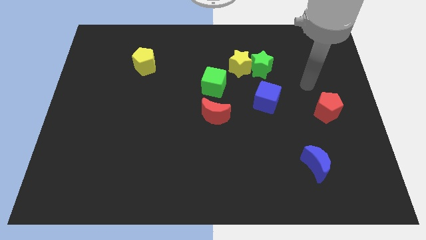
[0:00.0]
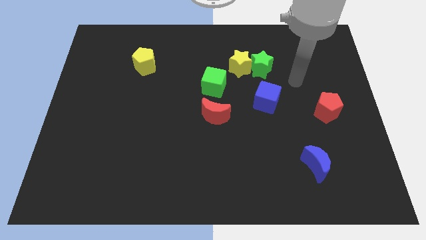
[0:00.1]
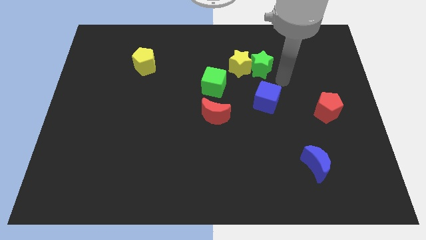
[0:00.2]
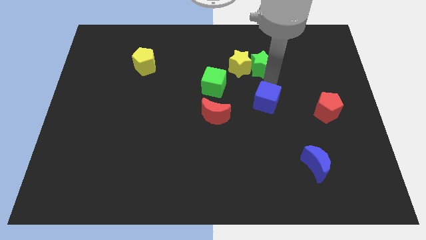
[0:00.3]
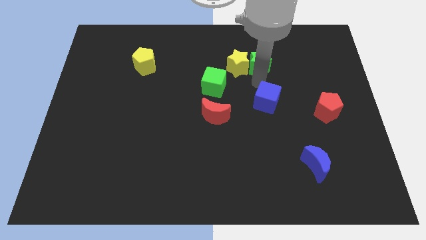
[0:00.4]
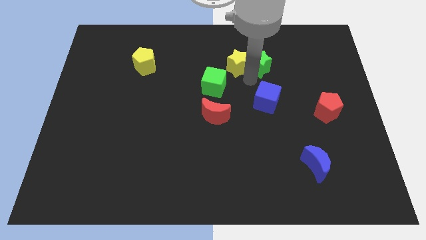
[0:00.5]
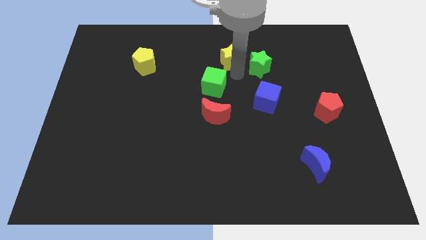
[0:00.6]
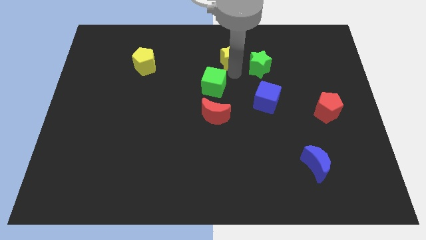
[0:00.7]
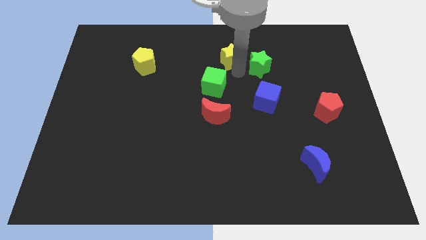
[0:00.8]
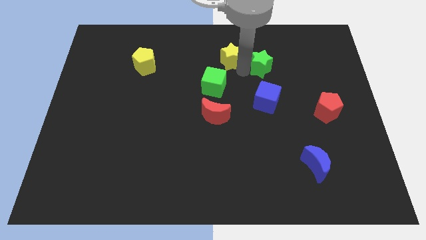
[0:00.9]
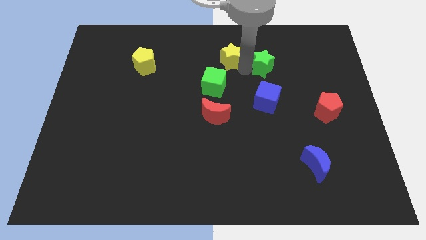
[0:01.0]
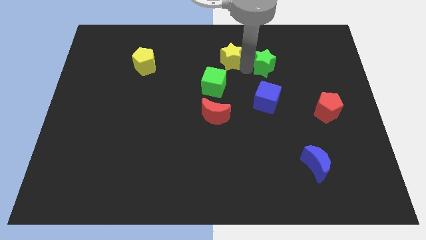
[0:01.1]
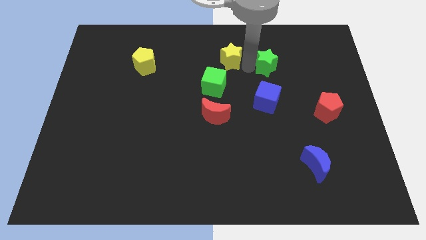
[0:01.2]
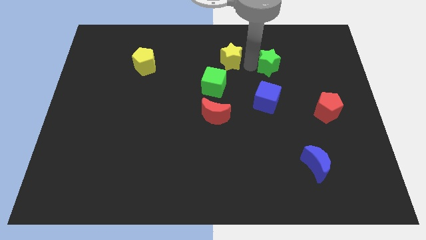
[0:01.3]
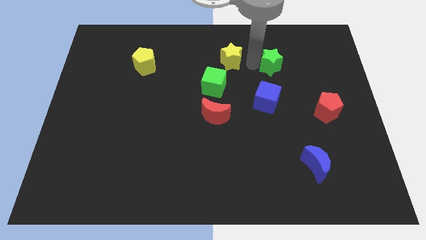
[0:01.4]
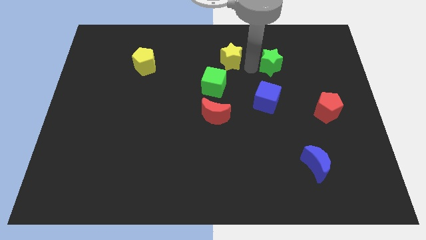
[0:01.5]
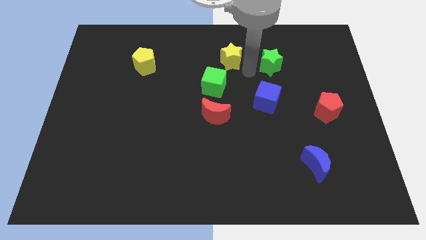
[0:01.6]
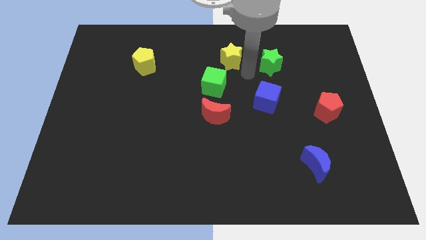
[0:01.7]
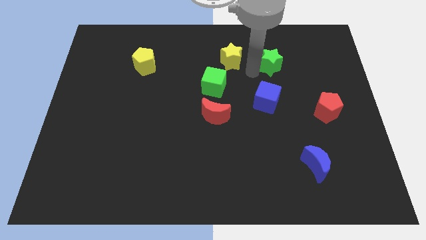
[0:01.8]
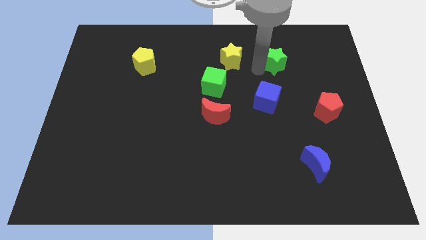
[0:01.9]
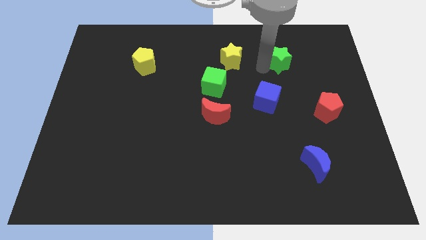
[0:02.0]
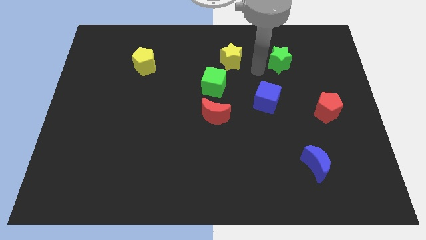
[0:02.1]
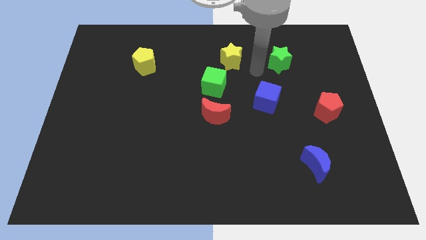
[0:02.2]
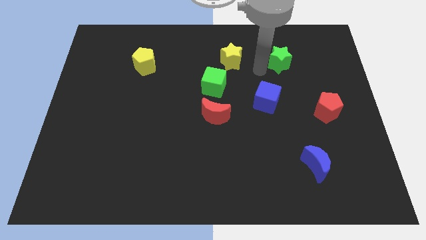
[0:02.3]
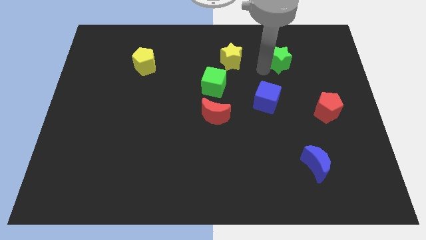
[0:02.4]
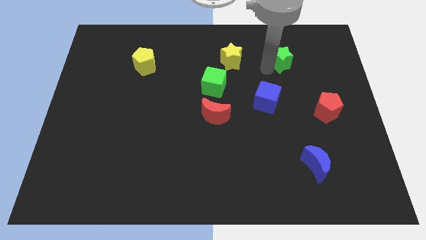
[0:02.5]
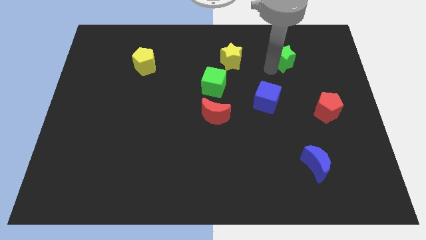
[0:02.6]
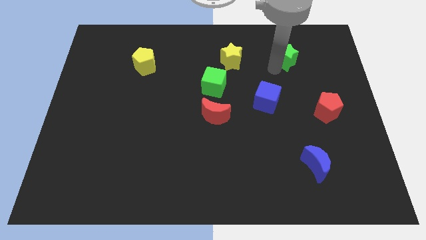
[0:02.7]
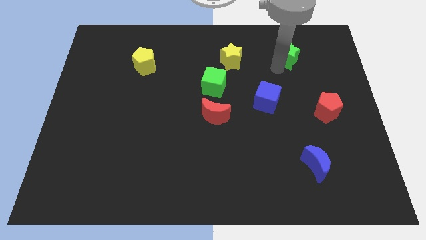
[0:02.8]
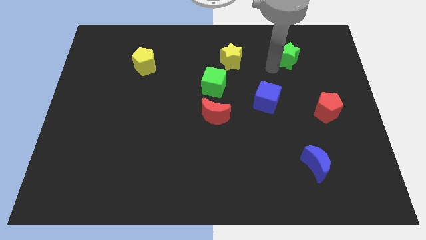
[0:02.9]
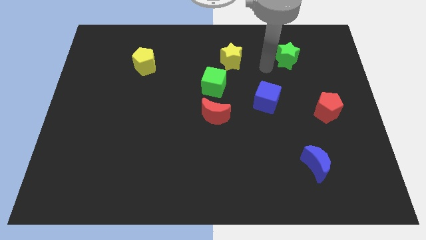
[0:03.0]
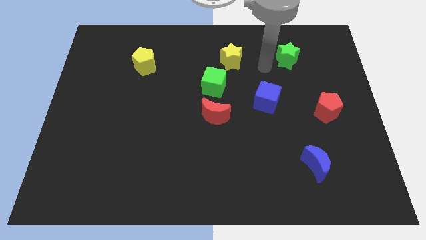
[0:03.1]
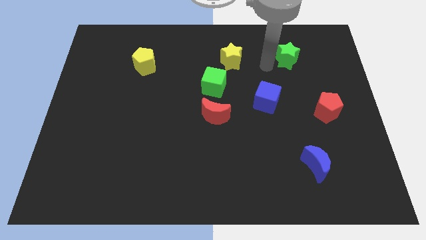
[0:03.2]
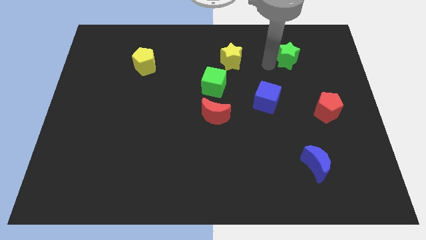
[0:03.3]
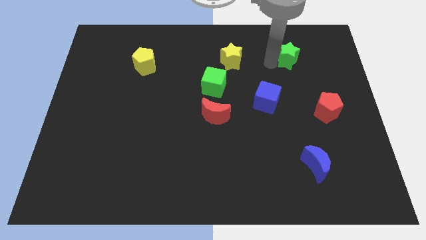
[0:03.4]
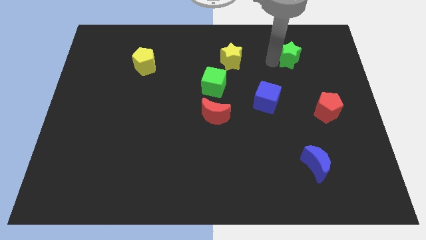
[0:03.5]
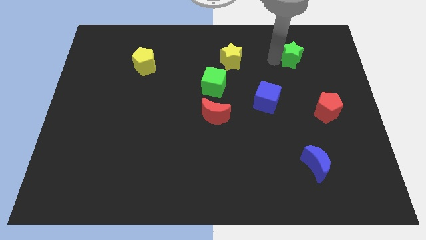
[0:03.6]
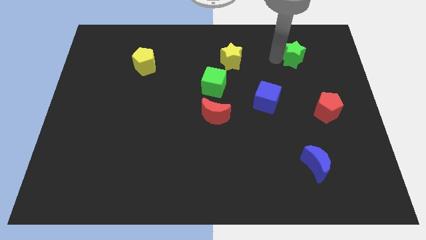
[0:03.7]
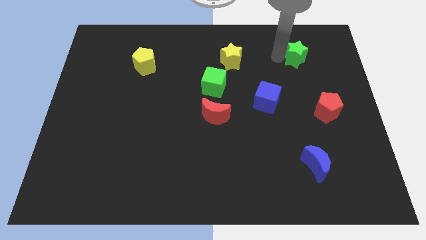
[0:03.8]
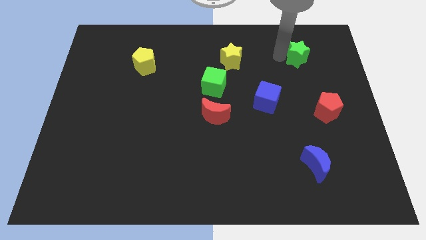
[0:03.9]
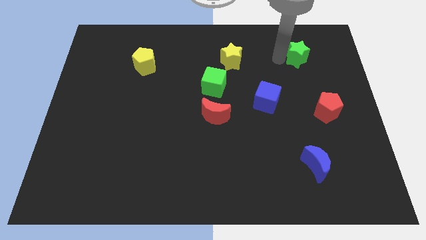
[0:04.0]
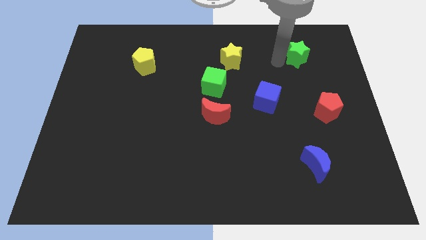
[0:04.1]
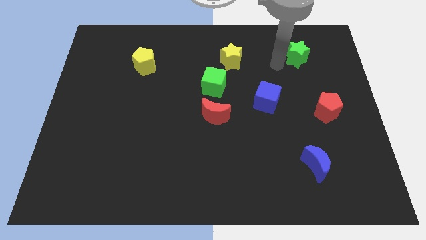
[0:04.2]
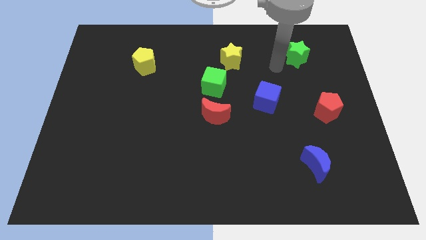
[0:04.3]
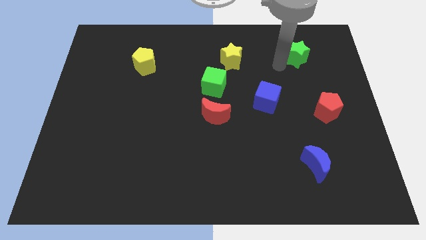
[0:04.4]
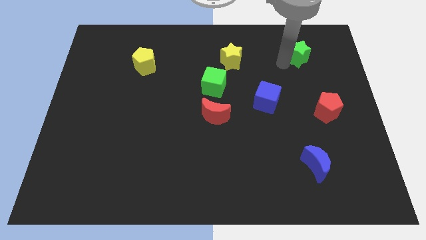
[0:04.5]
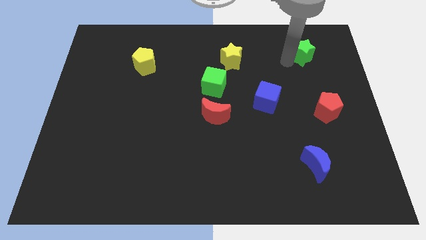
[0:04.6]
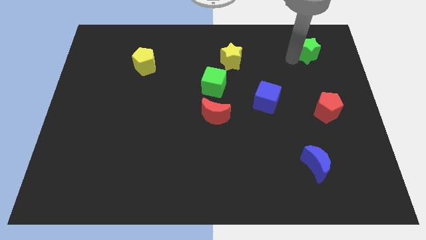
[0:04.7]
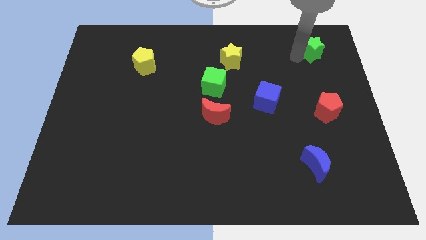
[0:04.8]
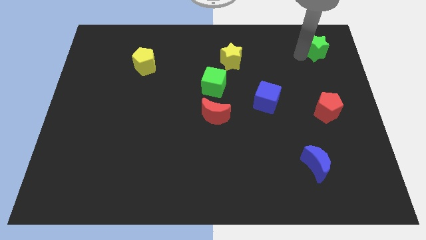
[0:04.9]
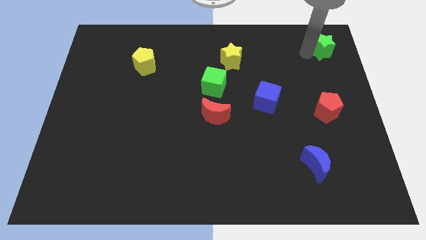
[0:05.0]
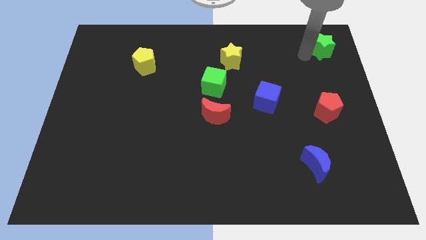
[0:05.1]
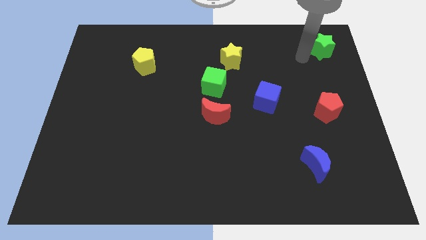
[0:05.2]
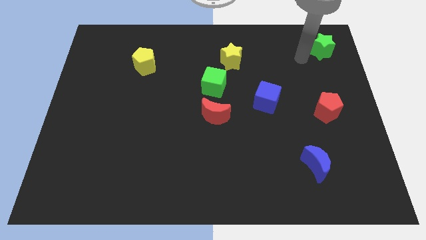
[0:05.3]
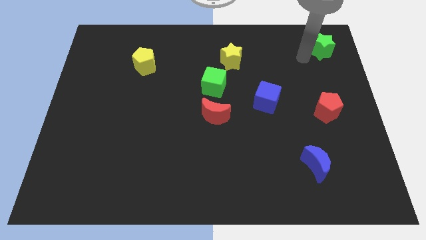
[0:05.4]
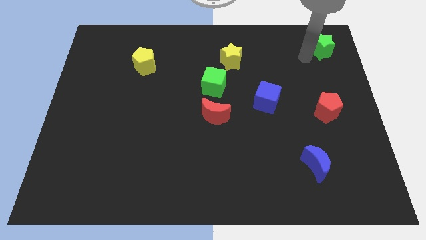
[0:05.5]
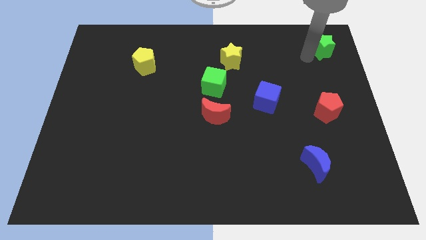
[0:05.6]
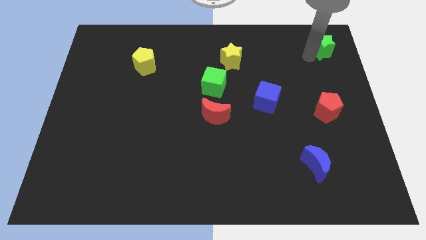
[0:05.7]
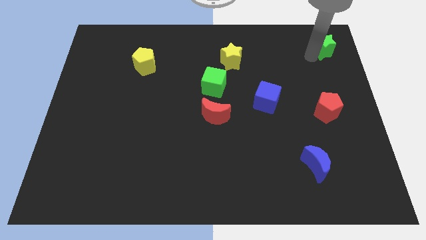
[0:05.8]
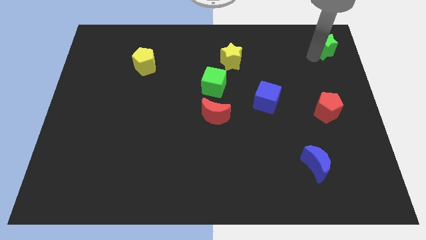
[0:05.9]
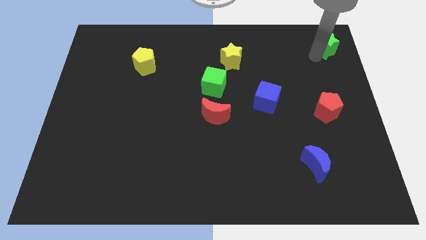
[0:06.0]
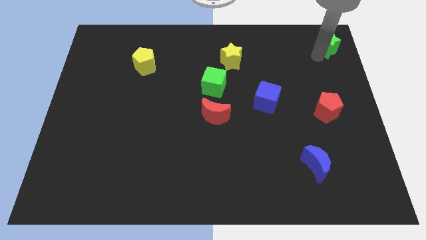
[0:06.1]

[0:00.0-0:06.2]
move the green star to the top right of the board

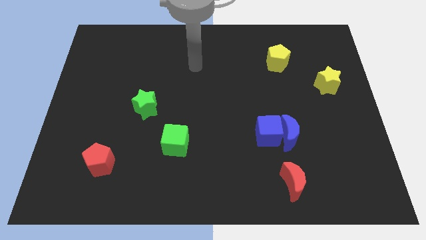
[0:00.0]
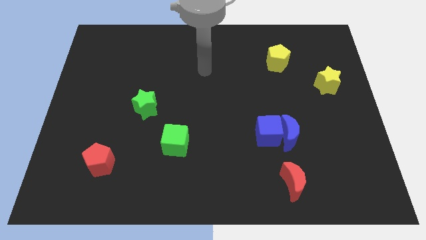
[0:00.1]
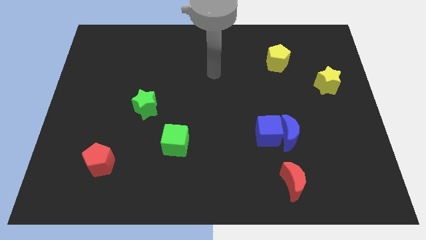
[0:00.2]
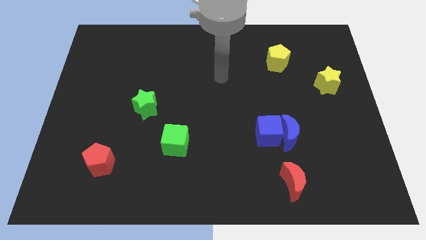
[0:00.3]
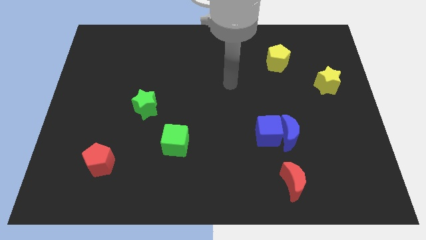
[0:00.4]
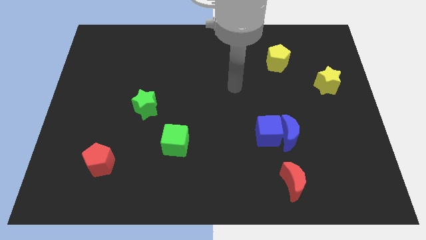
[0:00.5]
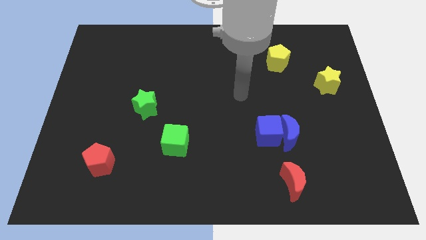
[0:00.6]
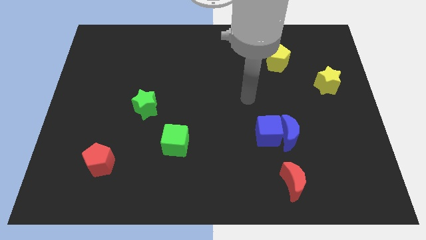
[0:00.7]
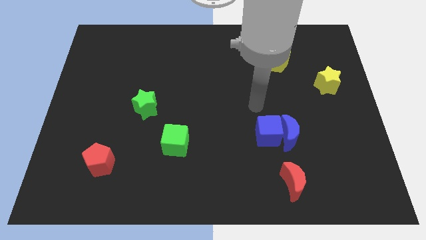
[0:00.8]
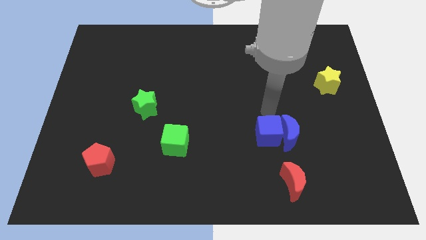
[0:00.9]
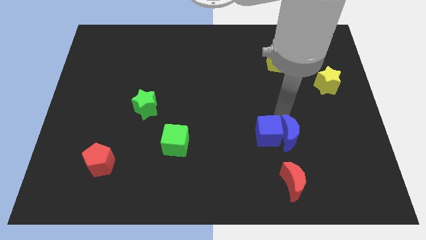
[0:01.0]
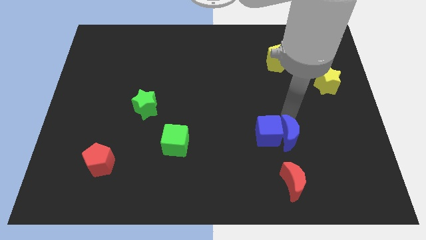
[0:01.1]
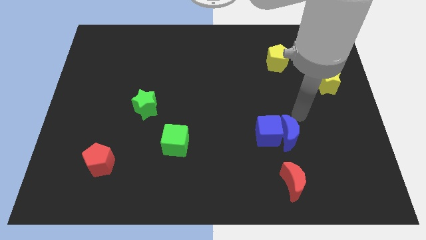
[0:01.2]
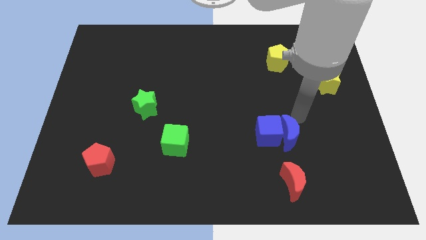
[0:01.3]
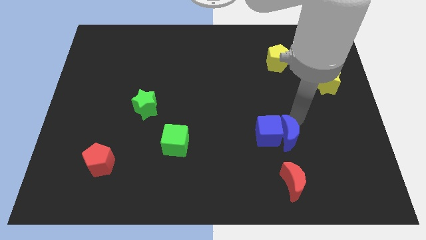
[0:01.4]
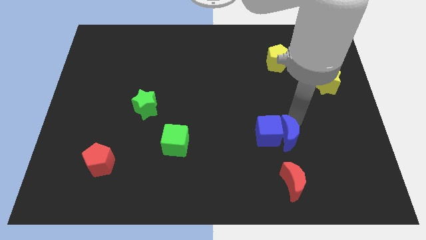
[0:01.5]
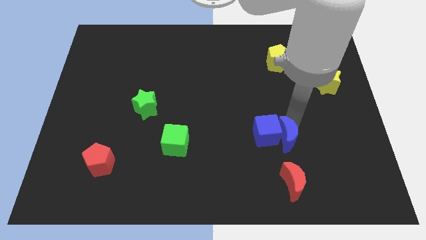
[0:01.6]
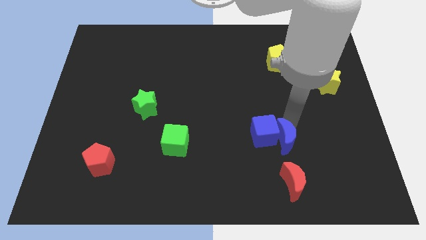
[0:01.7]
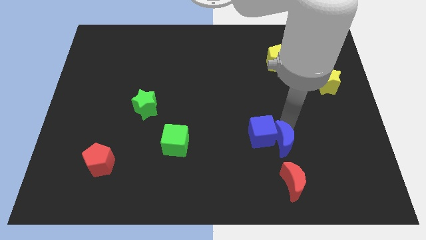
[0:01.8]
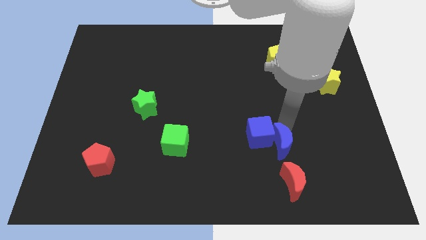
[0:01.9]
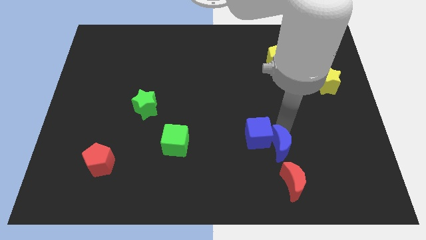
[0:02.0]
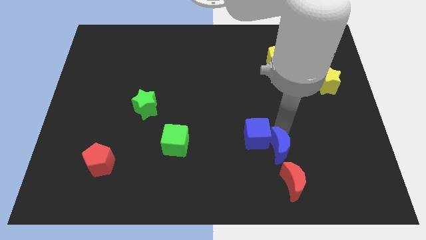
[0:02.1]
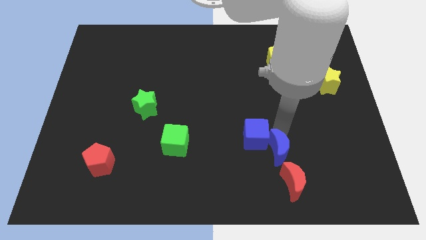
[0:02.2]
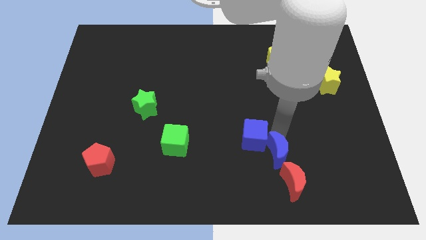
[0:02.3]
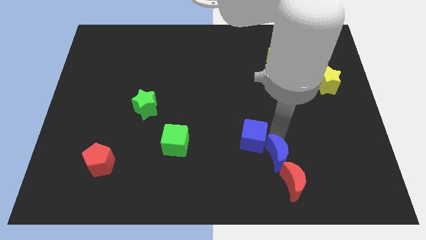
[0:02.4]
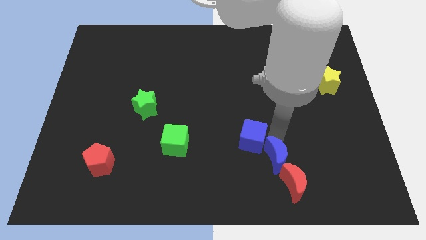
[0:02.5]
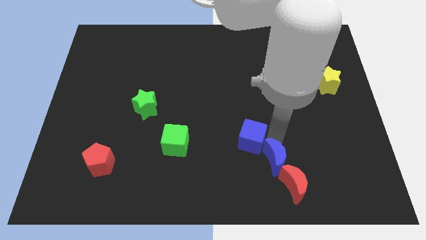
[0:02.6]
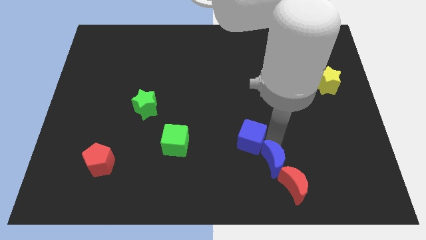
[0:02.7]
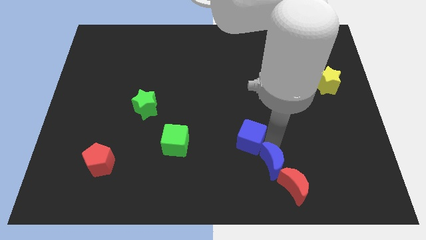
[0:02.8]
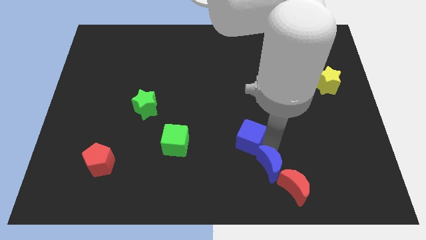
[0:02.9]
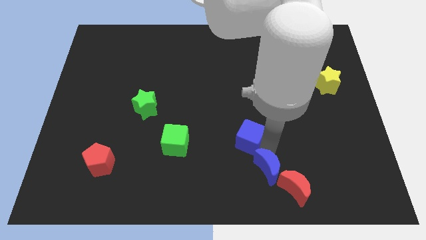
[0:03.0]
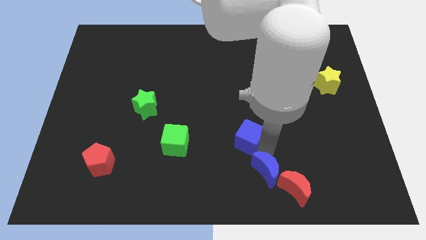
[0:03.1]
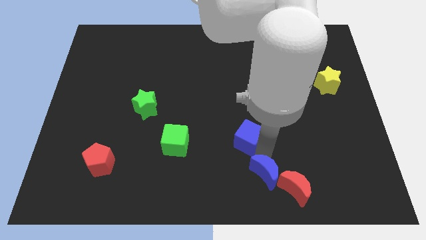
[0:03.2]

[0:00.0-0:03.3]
slide the blue moon to the bottom
